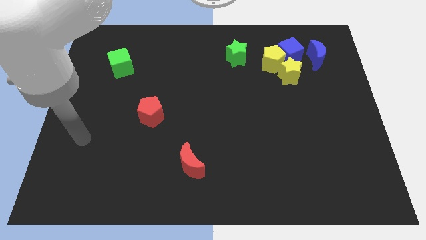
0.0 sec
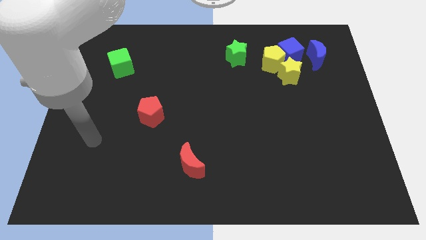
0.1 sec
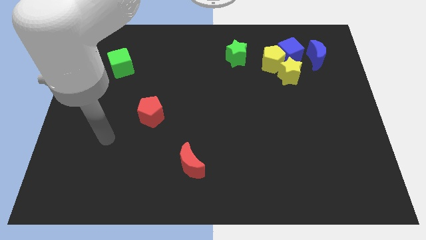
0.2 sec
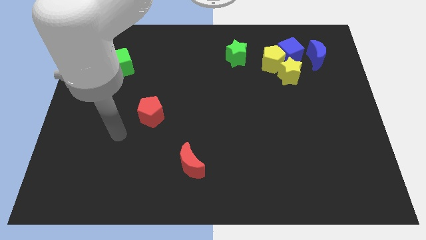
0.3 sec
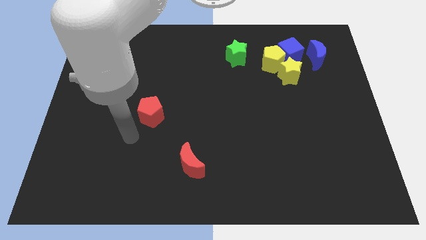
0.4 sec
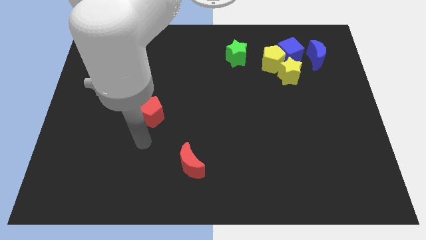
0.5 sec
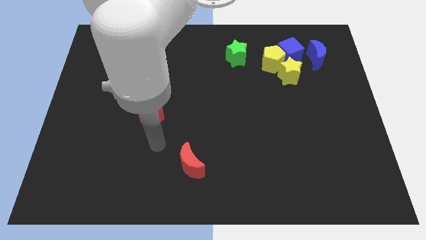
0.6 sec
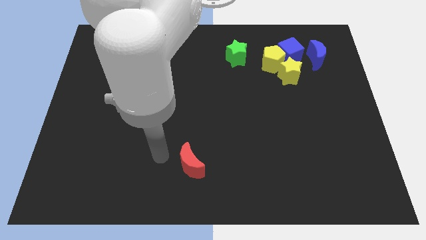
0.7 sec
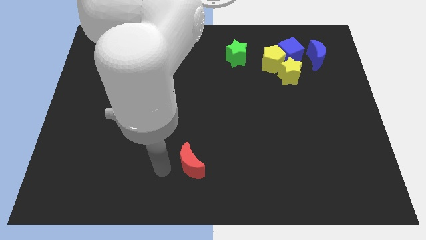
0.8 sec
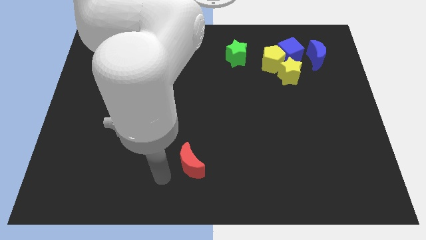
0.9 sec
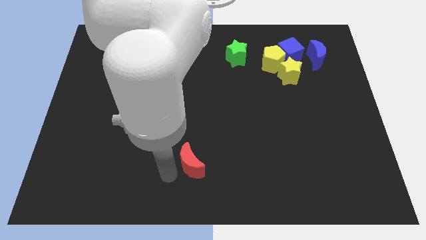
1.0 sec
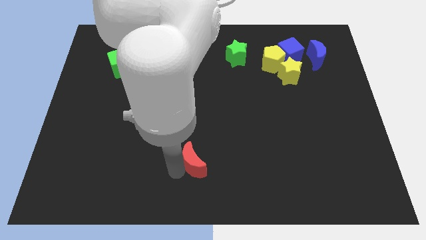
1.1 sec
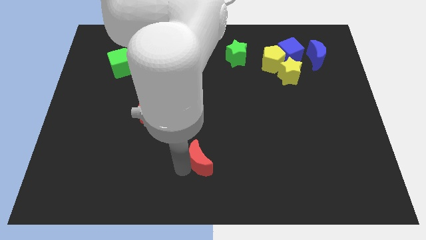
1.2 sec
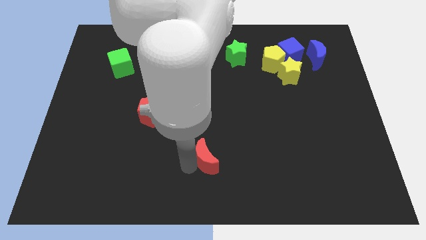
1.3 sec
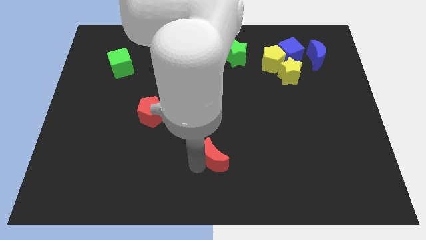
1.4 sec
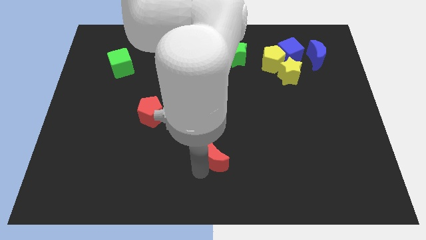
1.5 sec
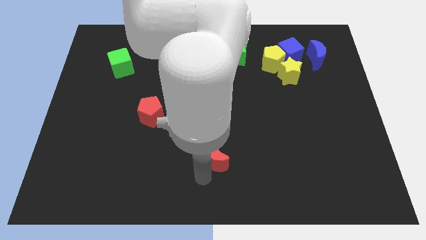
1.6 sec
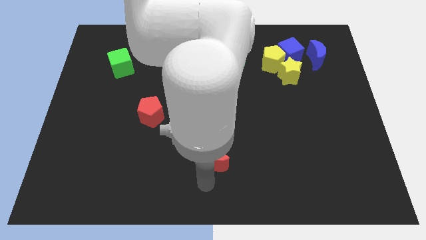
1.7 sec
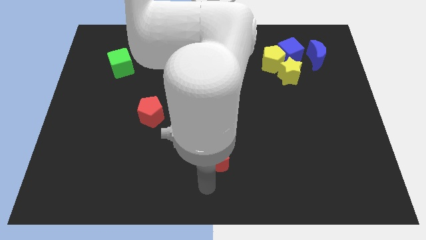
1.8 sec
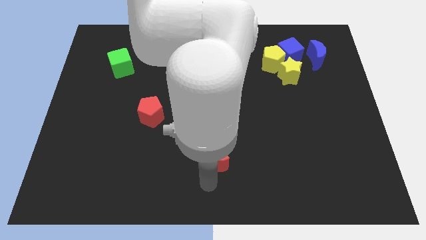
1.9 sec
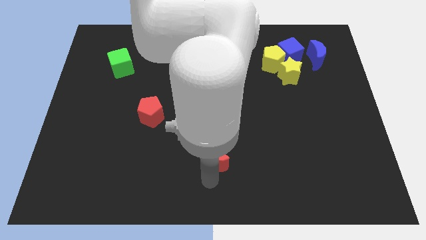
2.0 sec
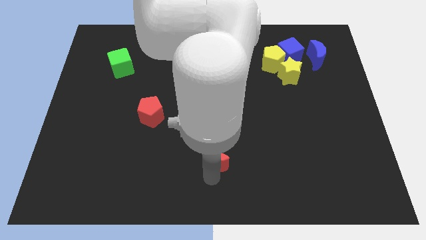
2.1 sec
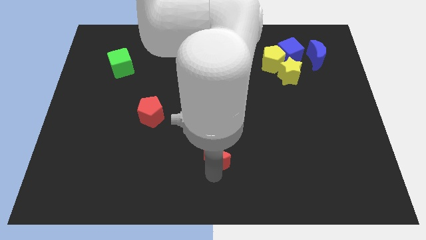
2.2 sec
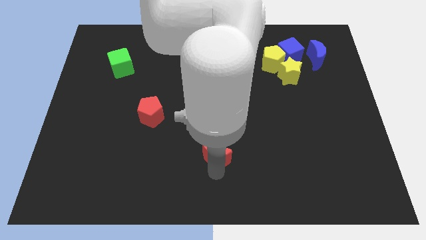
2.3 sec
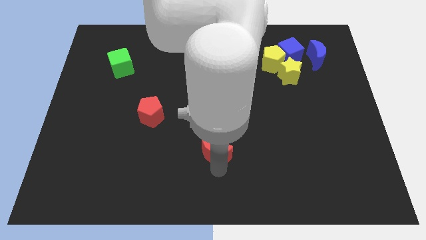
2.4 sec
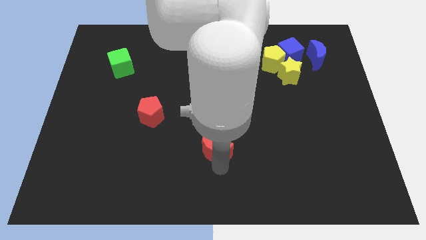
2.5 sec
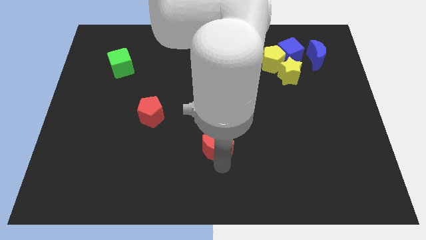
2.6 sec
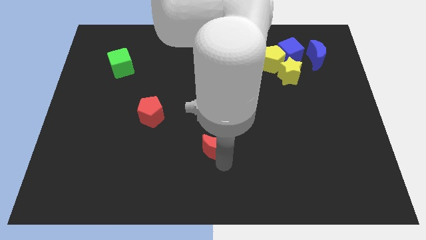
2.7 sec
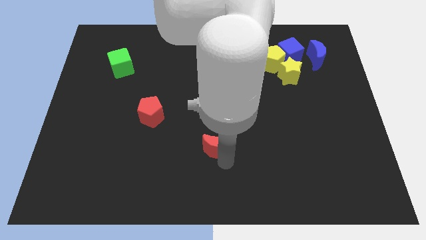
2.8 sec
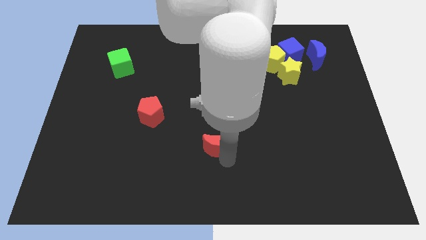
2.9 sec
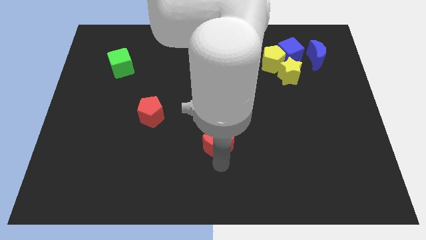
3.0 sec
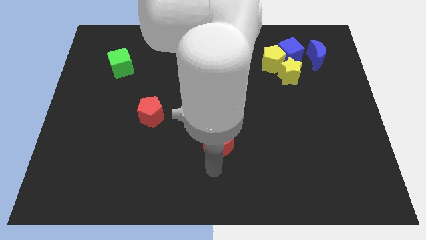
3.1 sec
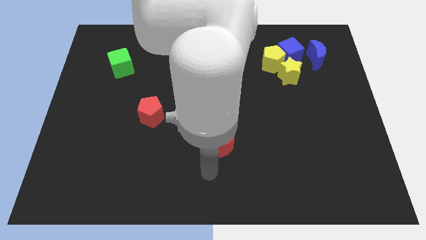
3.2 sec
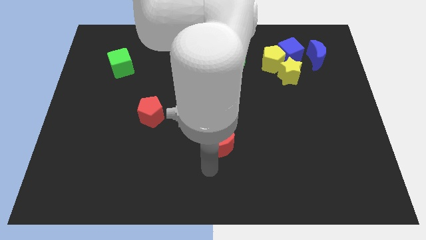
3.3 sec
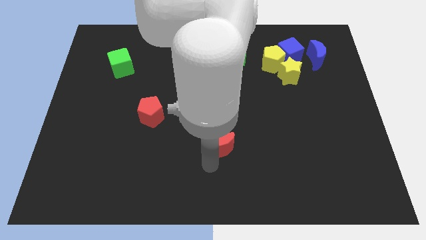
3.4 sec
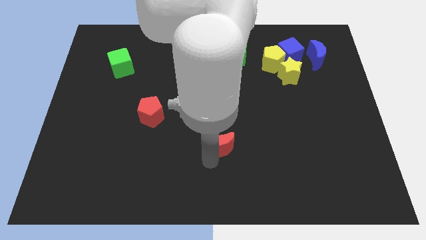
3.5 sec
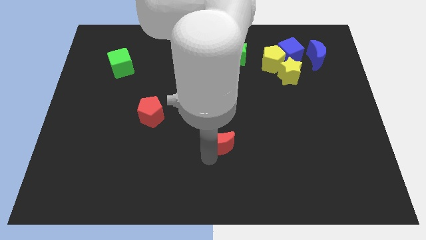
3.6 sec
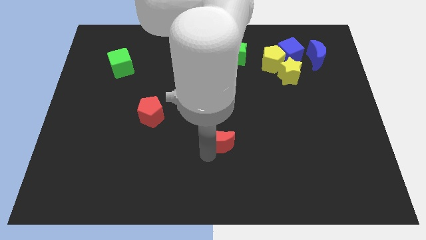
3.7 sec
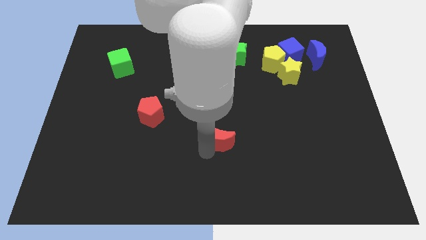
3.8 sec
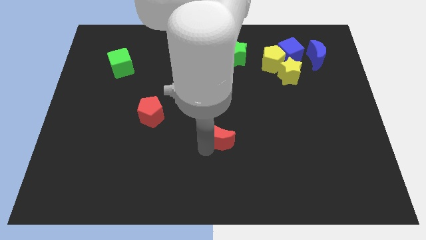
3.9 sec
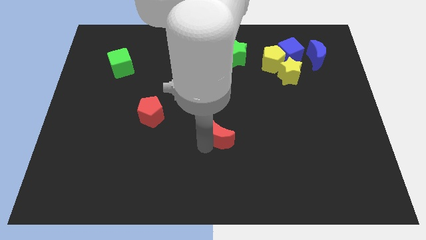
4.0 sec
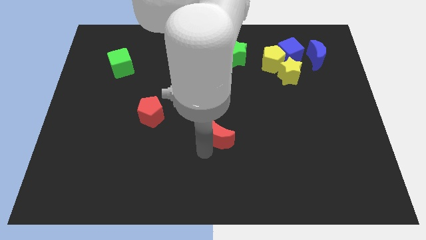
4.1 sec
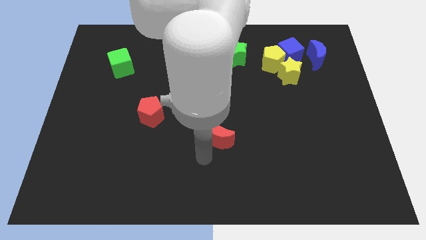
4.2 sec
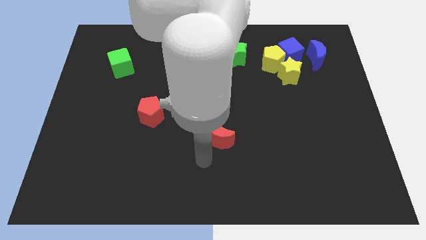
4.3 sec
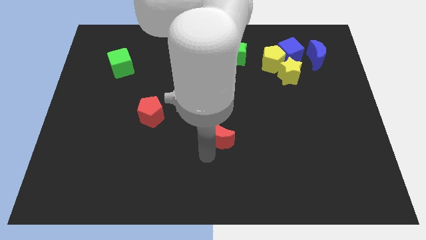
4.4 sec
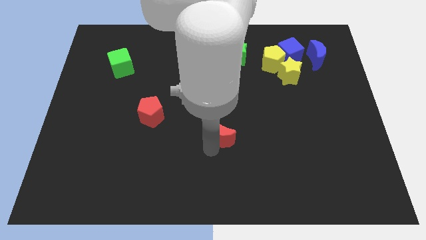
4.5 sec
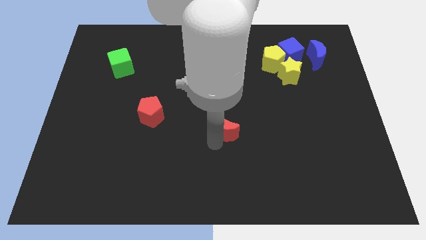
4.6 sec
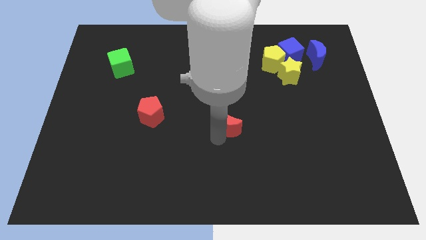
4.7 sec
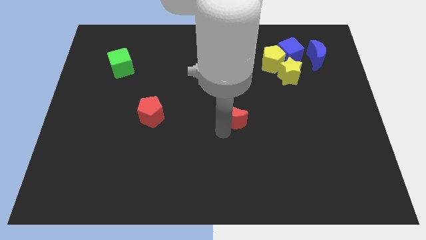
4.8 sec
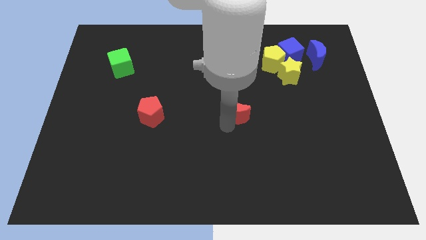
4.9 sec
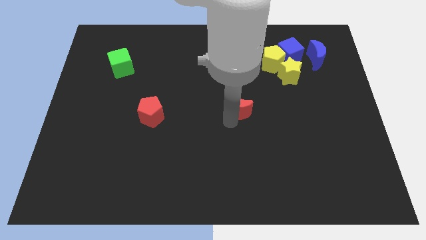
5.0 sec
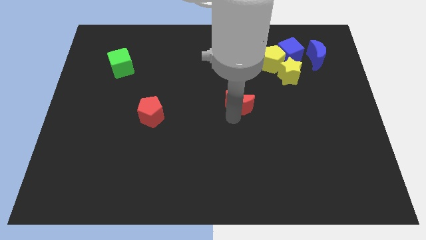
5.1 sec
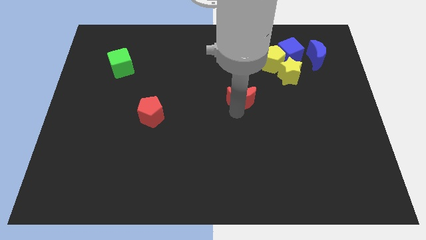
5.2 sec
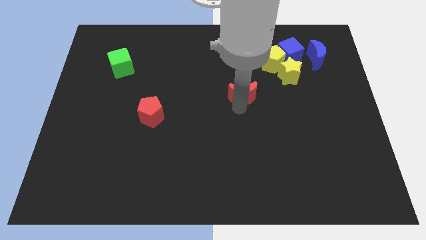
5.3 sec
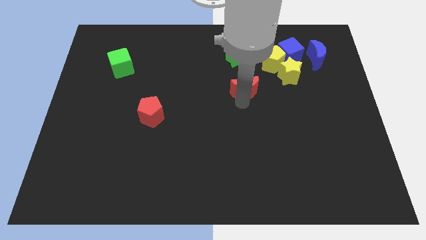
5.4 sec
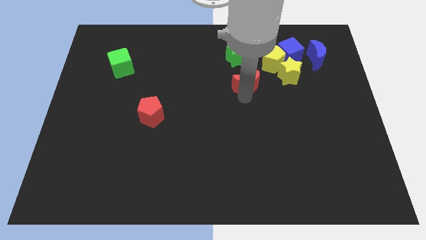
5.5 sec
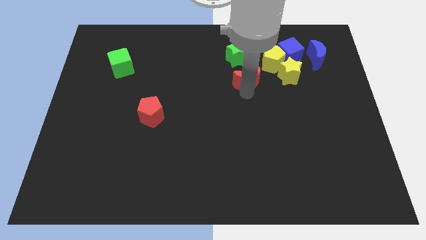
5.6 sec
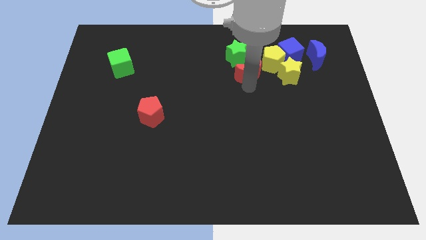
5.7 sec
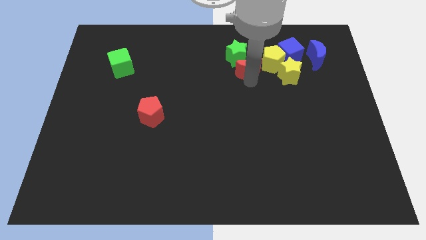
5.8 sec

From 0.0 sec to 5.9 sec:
move the red moon to the green star

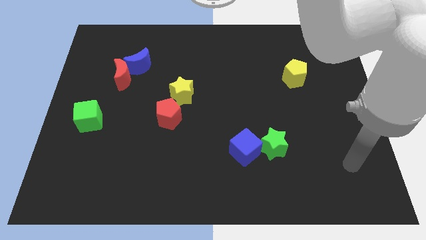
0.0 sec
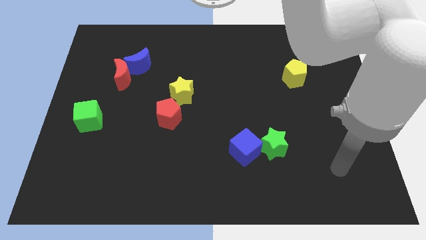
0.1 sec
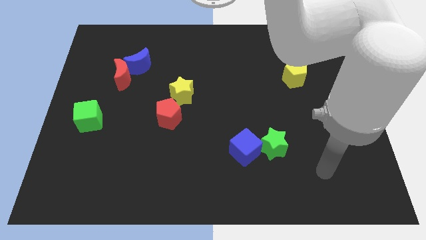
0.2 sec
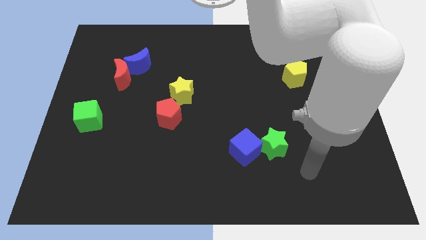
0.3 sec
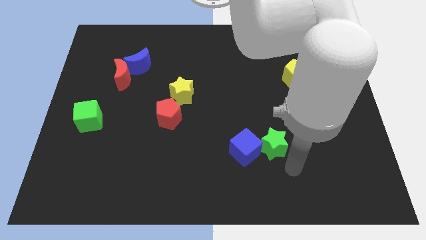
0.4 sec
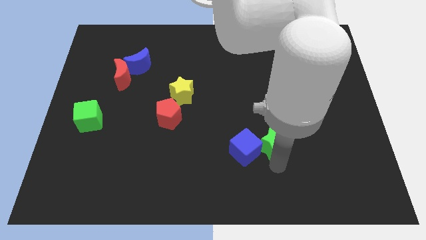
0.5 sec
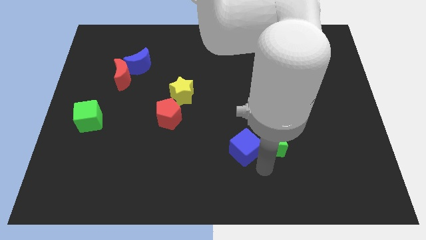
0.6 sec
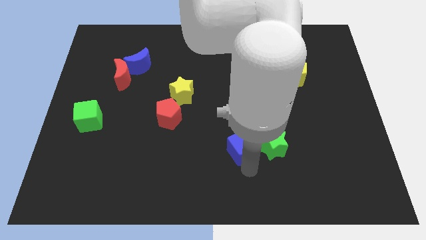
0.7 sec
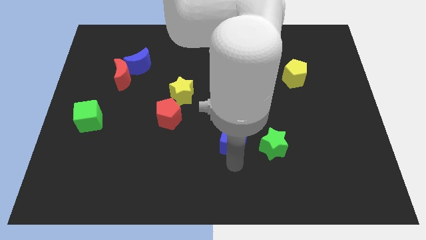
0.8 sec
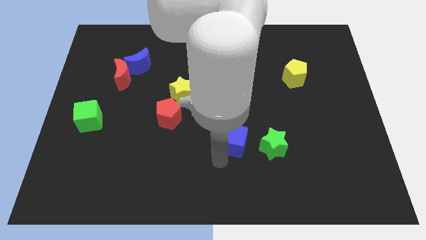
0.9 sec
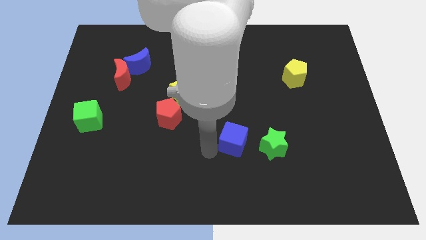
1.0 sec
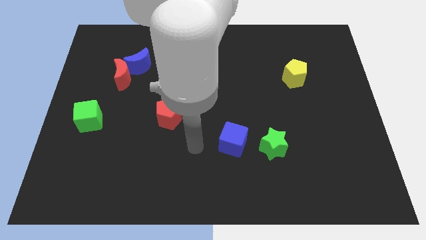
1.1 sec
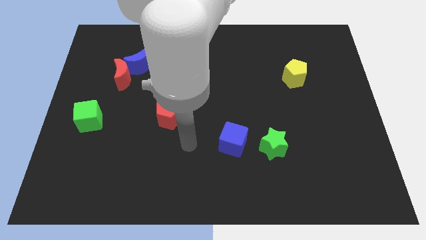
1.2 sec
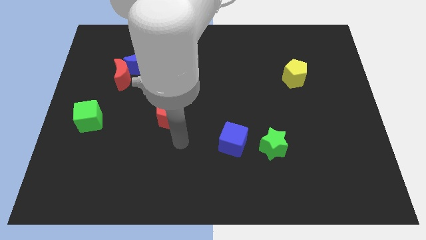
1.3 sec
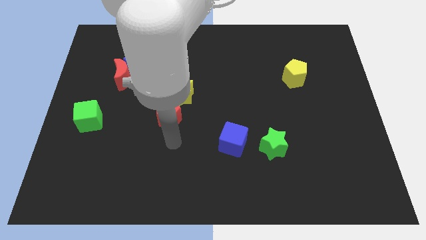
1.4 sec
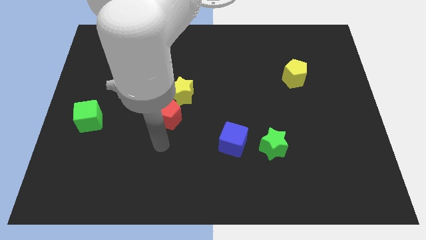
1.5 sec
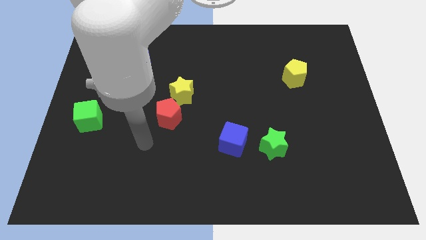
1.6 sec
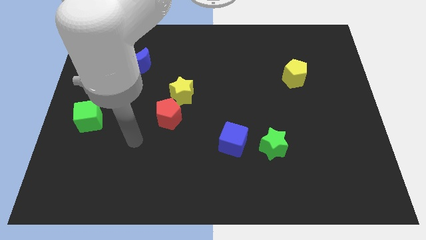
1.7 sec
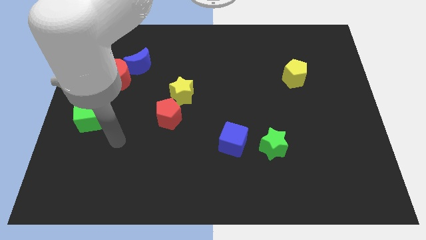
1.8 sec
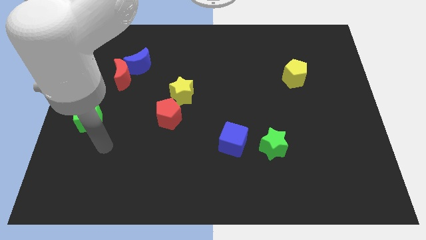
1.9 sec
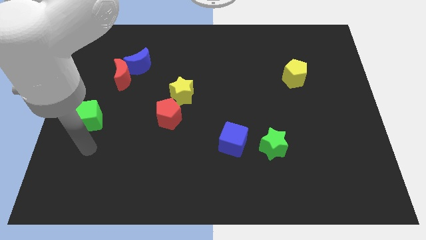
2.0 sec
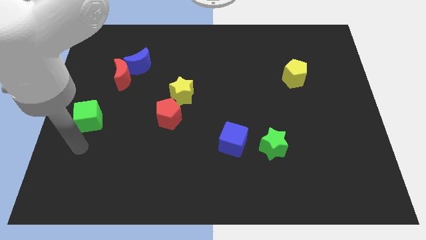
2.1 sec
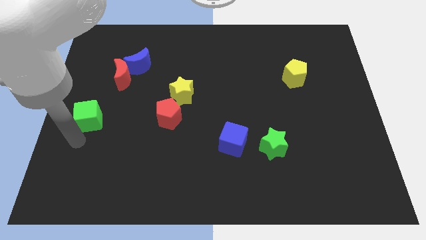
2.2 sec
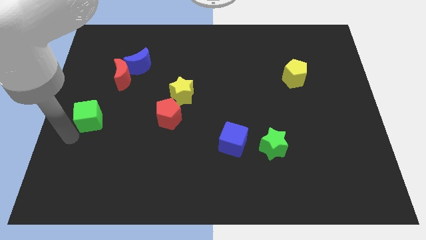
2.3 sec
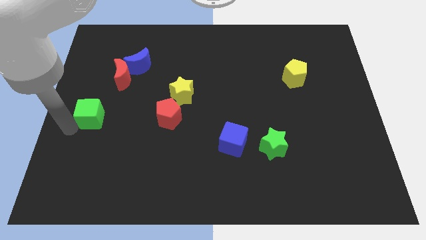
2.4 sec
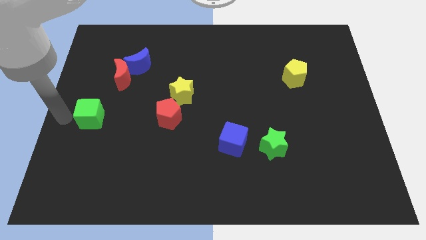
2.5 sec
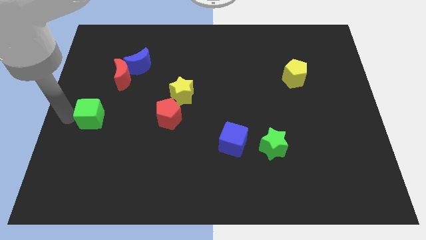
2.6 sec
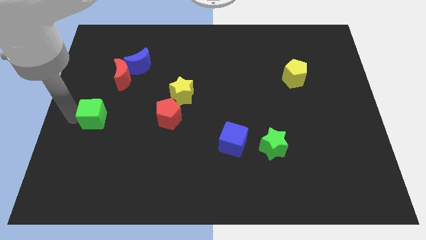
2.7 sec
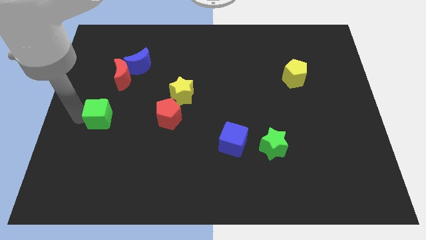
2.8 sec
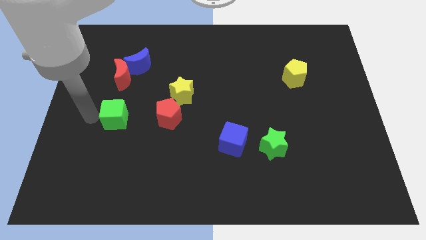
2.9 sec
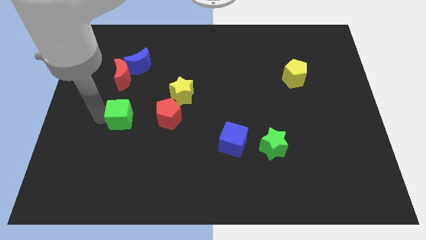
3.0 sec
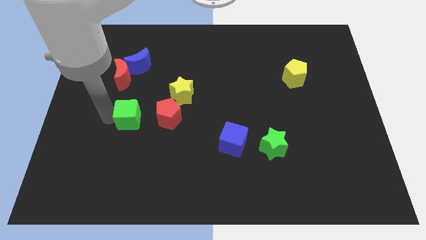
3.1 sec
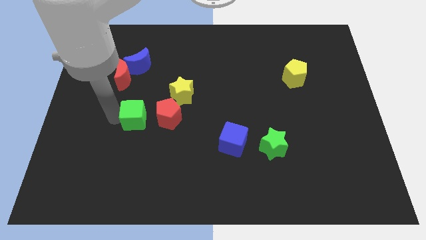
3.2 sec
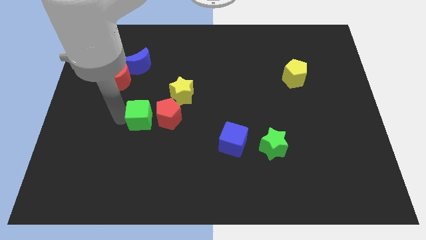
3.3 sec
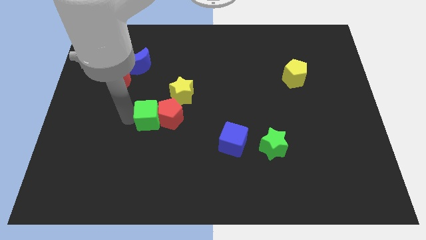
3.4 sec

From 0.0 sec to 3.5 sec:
move the green cube next to the red pentagon
